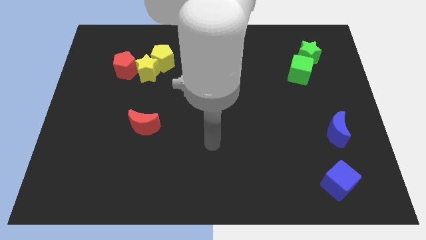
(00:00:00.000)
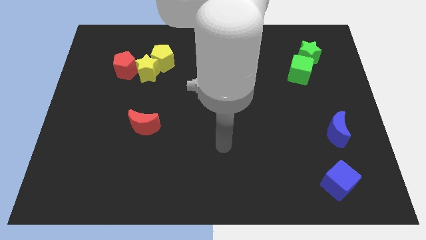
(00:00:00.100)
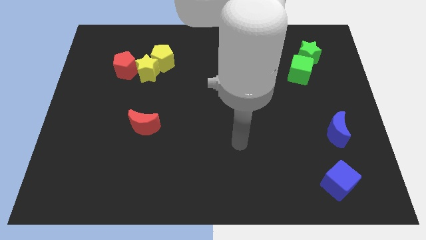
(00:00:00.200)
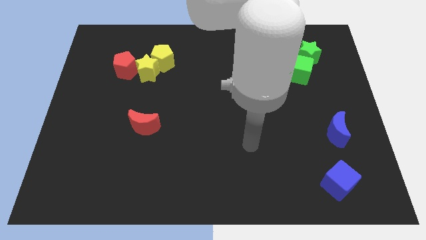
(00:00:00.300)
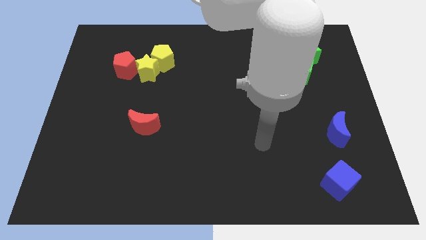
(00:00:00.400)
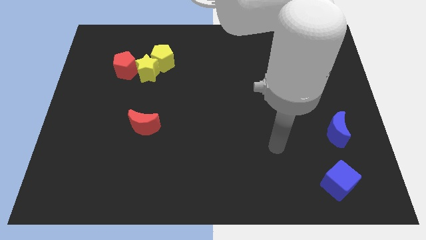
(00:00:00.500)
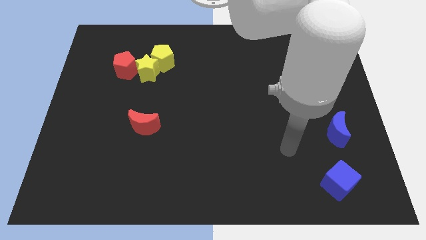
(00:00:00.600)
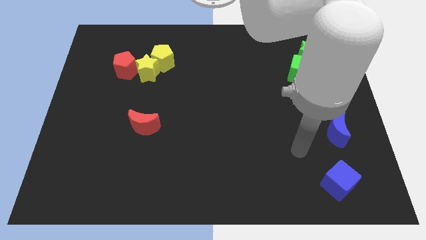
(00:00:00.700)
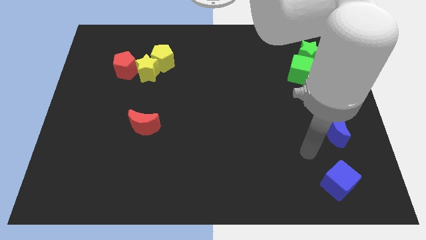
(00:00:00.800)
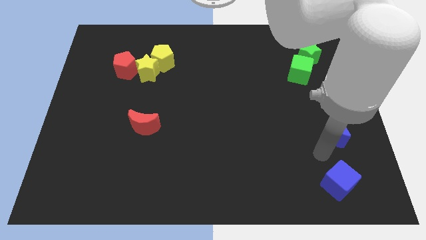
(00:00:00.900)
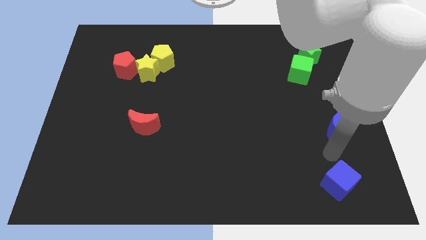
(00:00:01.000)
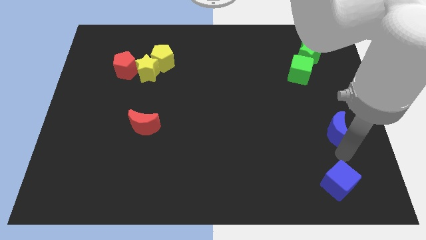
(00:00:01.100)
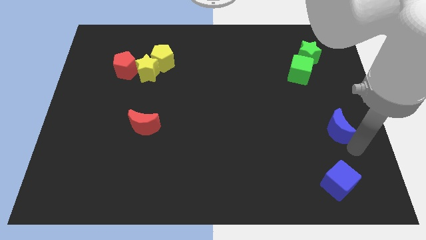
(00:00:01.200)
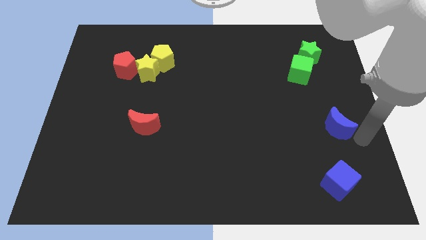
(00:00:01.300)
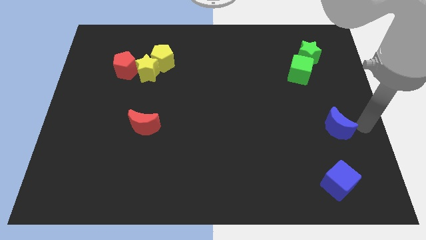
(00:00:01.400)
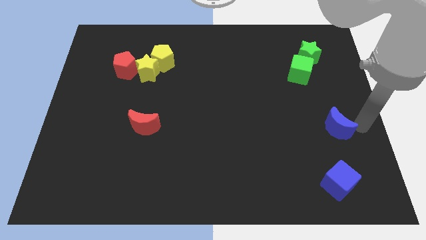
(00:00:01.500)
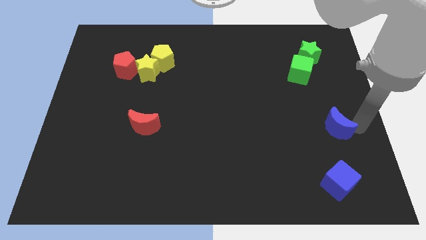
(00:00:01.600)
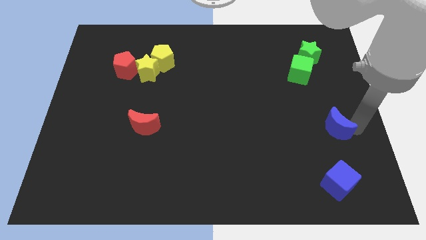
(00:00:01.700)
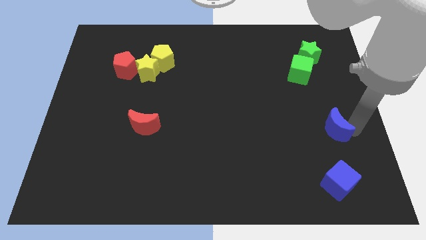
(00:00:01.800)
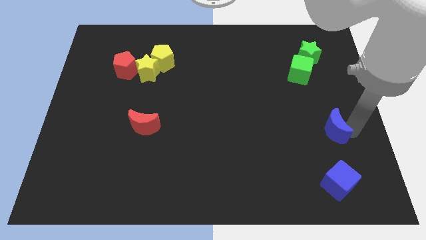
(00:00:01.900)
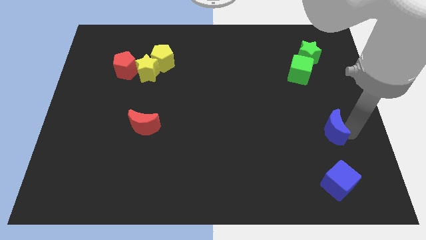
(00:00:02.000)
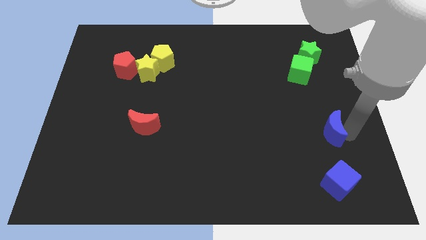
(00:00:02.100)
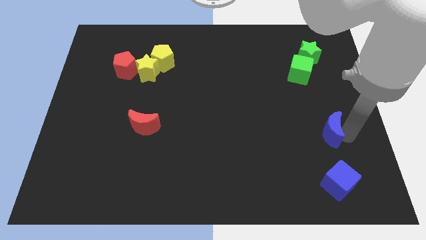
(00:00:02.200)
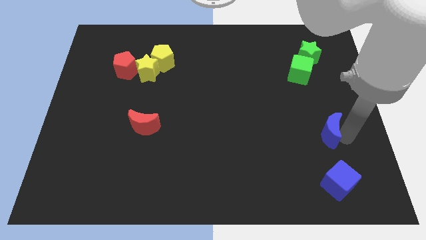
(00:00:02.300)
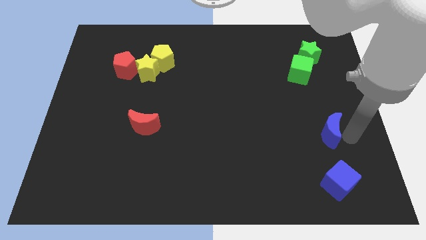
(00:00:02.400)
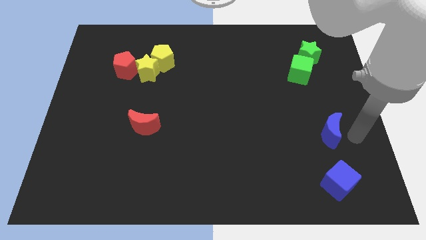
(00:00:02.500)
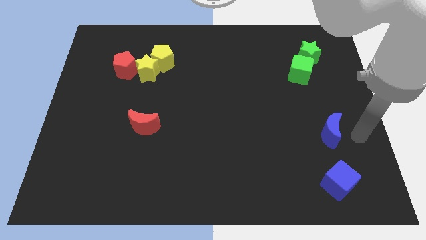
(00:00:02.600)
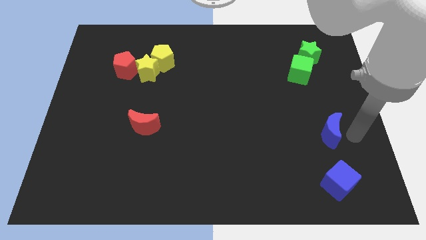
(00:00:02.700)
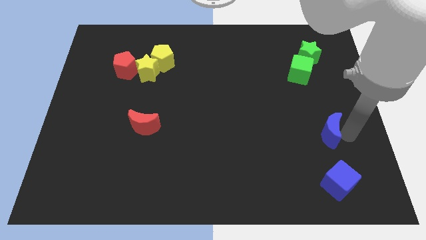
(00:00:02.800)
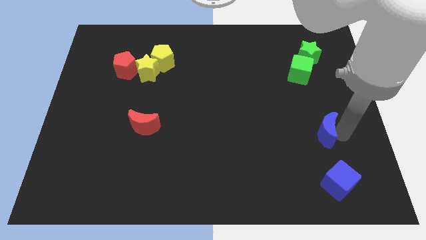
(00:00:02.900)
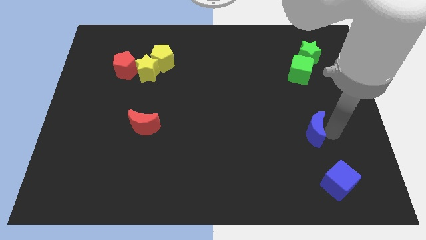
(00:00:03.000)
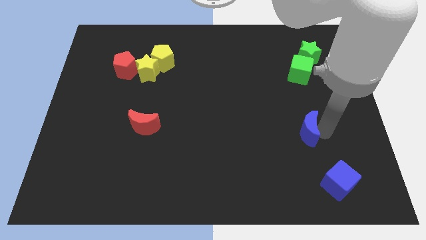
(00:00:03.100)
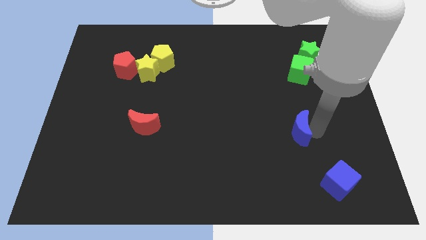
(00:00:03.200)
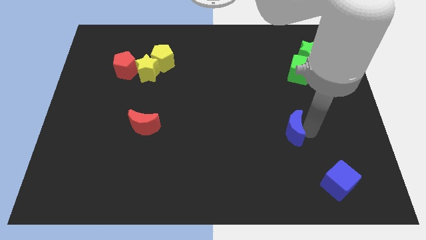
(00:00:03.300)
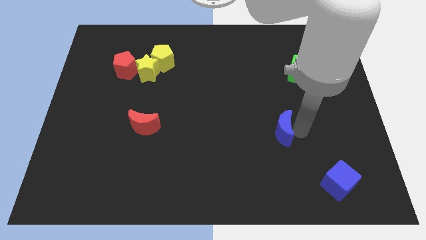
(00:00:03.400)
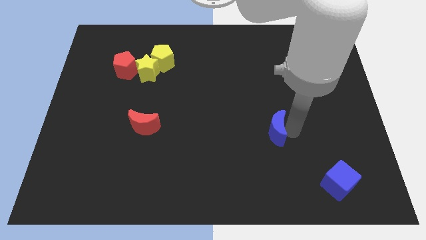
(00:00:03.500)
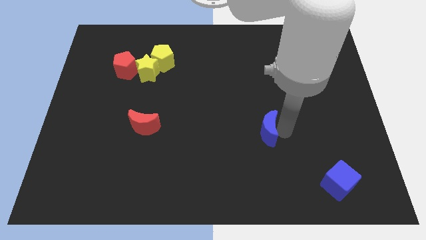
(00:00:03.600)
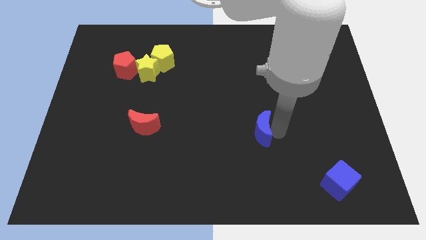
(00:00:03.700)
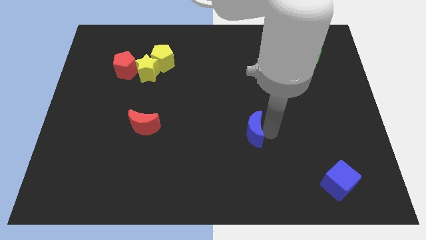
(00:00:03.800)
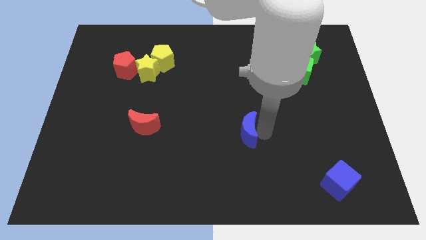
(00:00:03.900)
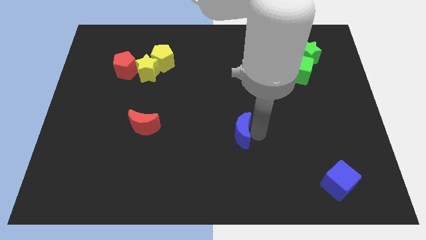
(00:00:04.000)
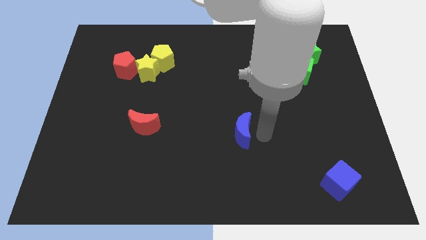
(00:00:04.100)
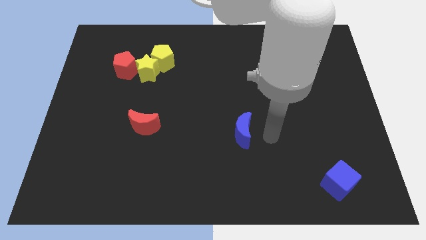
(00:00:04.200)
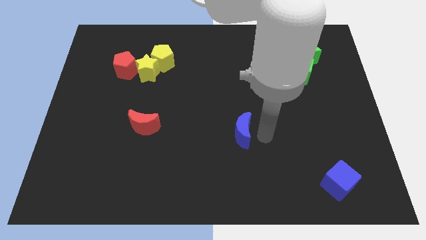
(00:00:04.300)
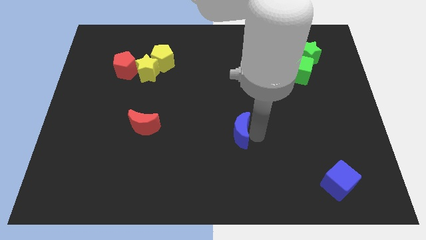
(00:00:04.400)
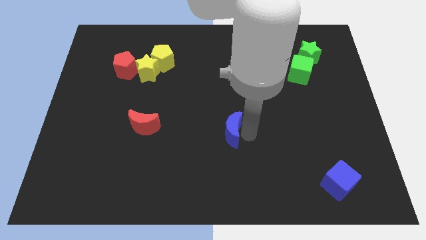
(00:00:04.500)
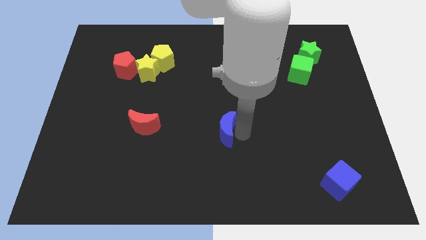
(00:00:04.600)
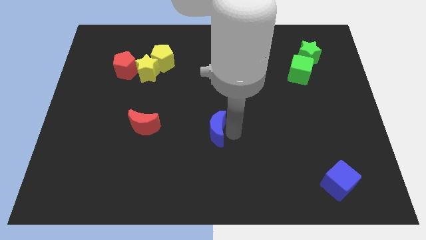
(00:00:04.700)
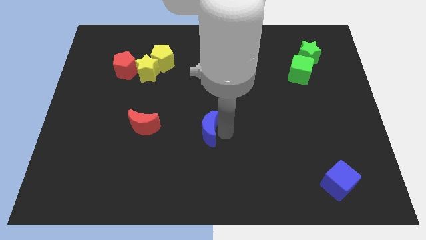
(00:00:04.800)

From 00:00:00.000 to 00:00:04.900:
push the blue moon to the right side of the red moon

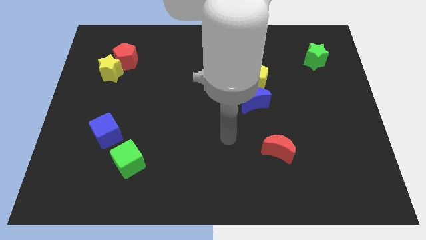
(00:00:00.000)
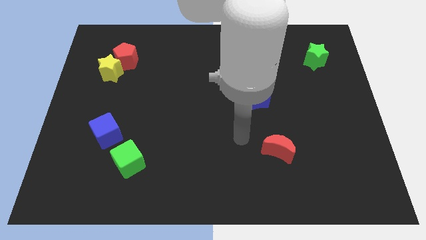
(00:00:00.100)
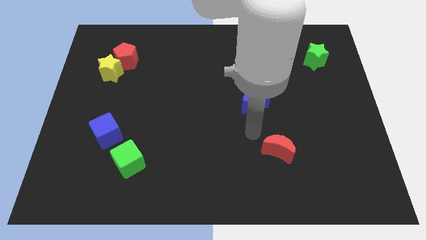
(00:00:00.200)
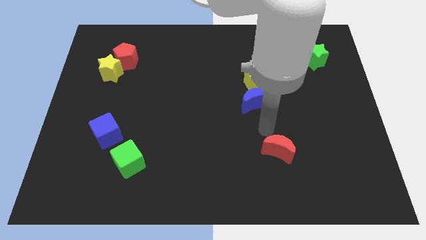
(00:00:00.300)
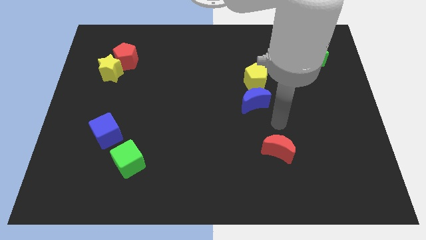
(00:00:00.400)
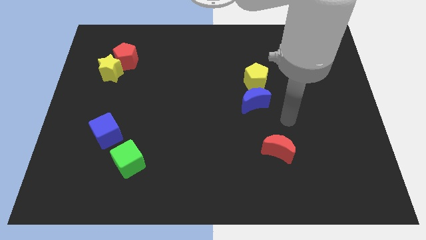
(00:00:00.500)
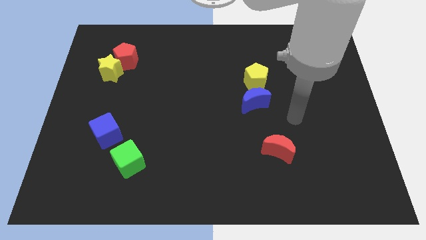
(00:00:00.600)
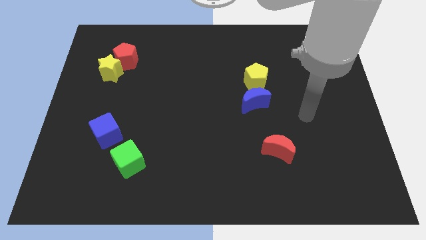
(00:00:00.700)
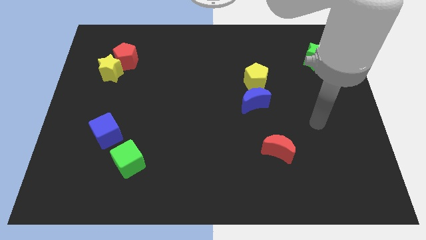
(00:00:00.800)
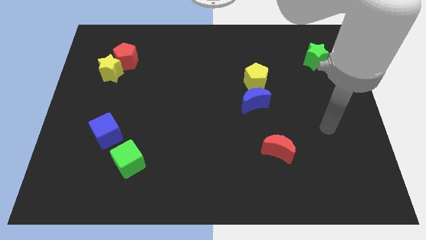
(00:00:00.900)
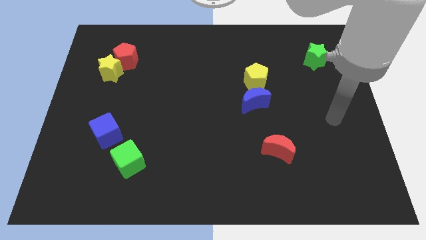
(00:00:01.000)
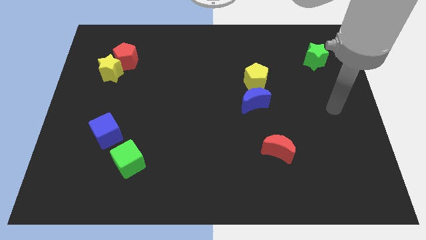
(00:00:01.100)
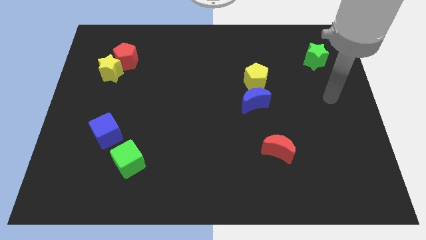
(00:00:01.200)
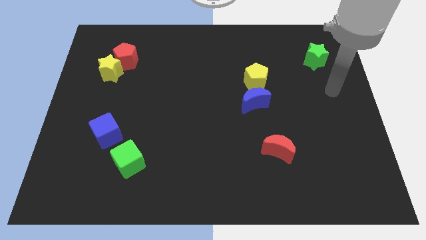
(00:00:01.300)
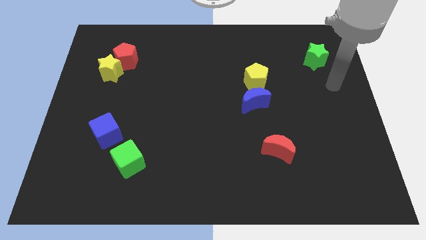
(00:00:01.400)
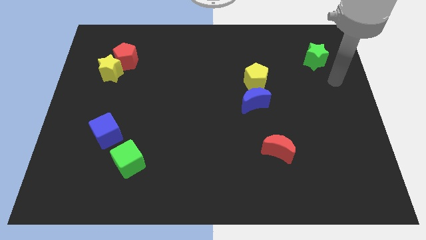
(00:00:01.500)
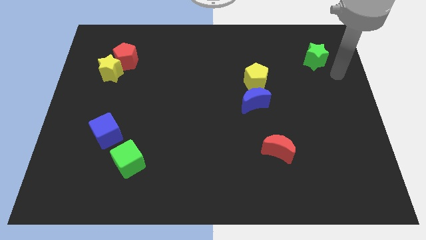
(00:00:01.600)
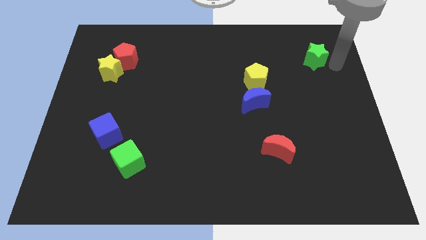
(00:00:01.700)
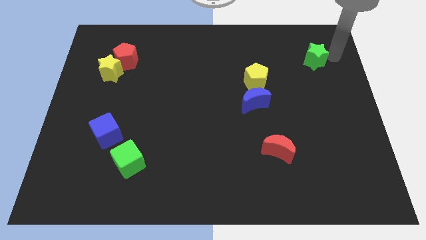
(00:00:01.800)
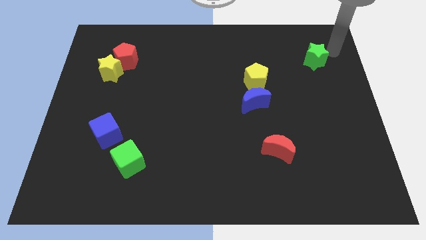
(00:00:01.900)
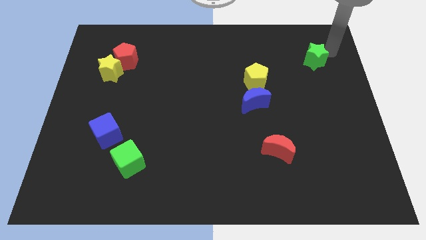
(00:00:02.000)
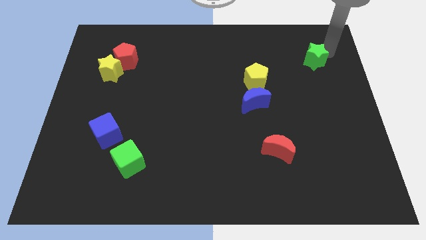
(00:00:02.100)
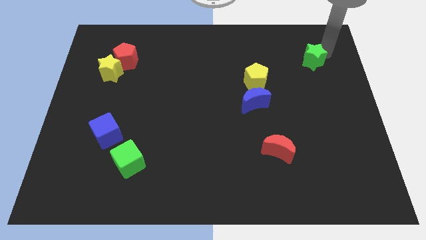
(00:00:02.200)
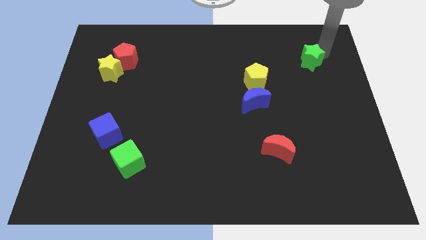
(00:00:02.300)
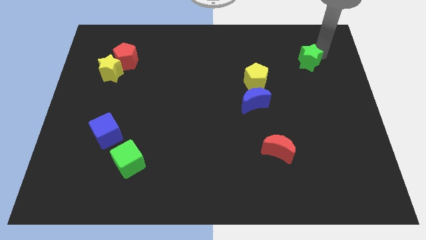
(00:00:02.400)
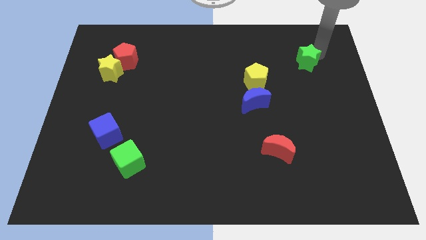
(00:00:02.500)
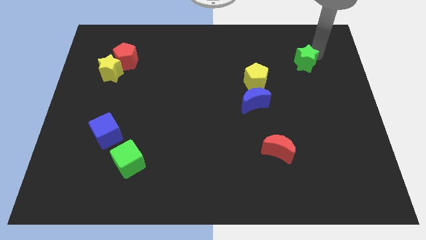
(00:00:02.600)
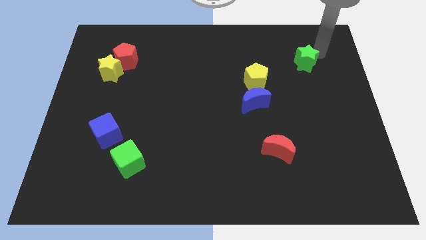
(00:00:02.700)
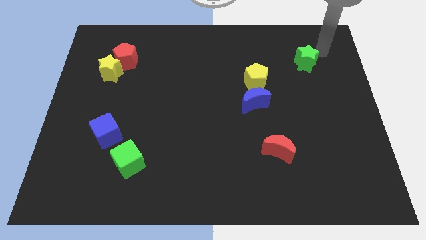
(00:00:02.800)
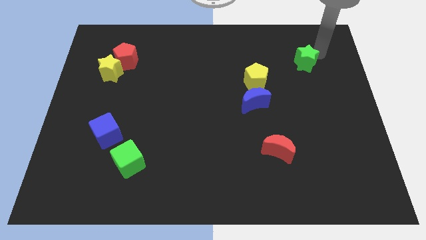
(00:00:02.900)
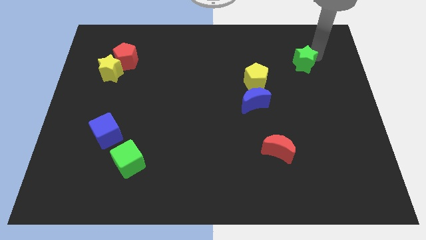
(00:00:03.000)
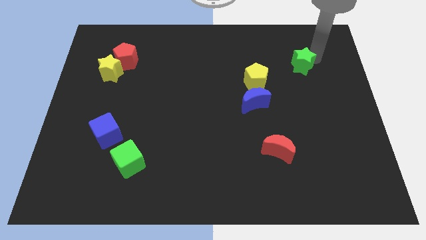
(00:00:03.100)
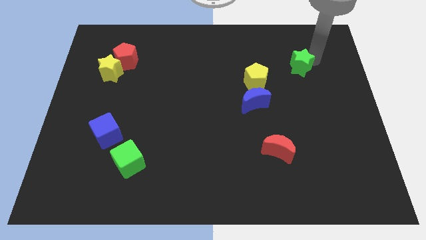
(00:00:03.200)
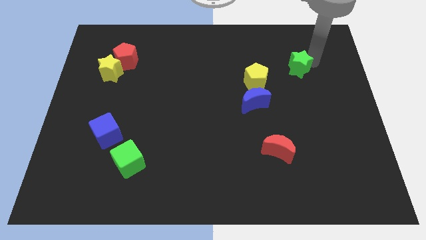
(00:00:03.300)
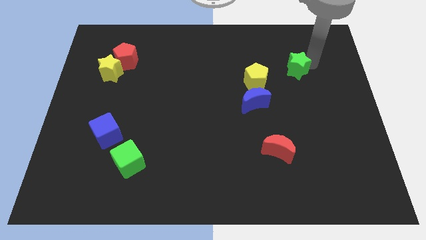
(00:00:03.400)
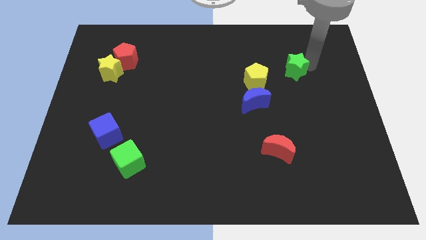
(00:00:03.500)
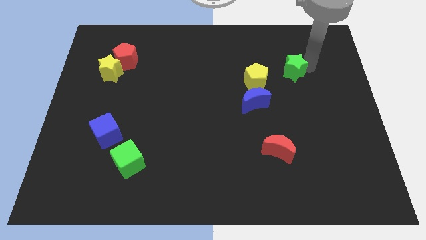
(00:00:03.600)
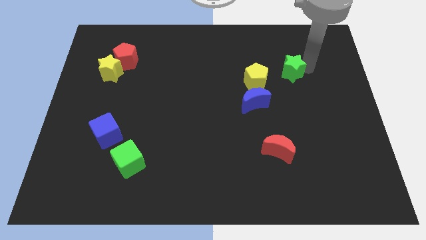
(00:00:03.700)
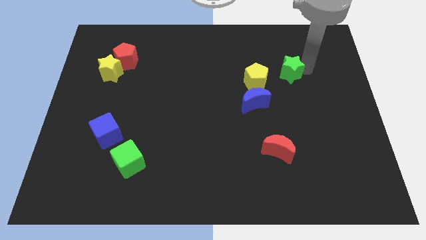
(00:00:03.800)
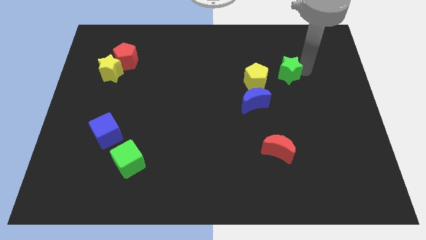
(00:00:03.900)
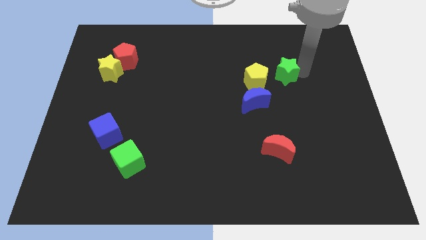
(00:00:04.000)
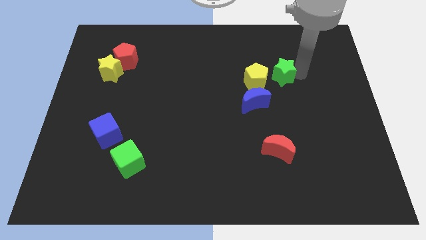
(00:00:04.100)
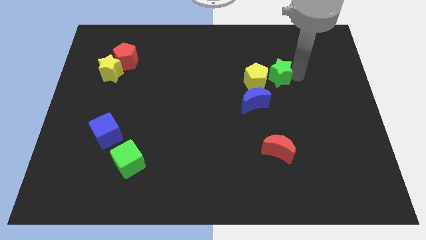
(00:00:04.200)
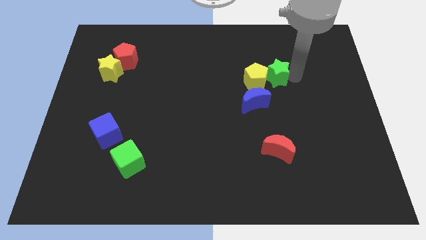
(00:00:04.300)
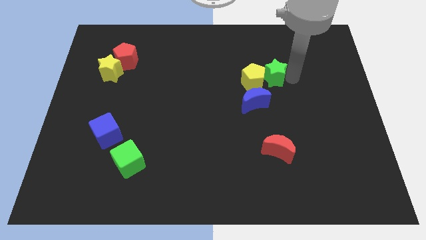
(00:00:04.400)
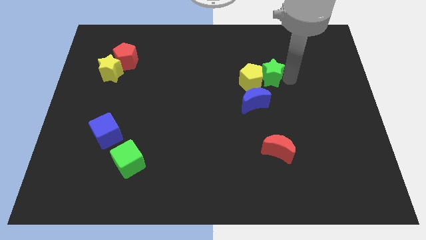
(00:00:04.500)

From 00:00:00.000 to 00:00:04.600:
slide the green star to the top side of the blue moon
